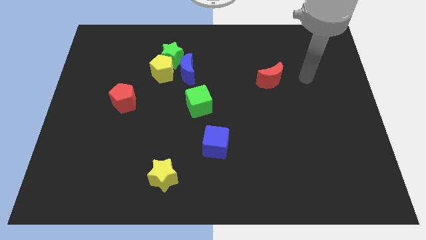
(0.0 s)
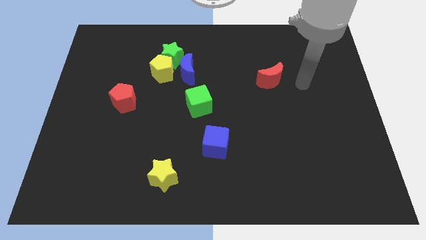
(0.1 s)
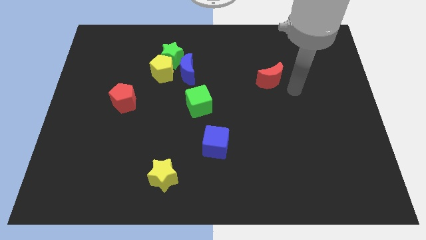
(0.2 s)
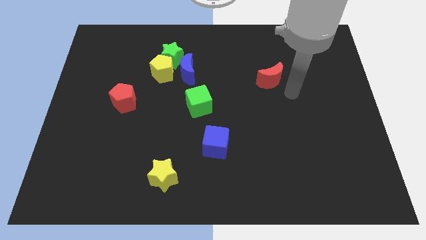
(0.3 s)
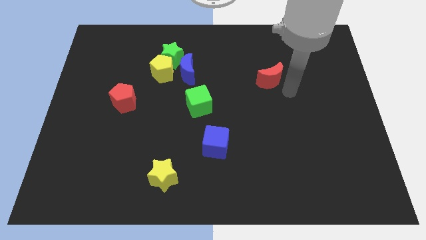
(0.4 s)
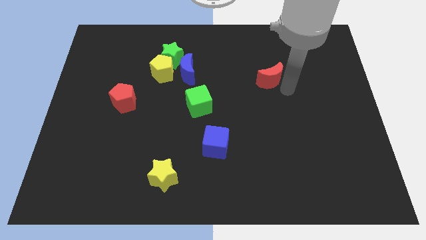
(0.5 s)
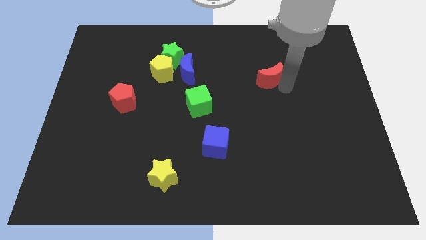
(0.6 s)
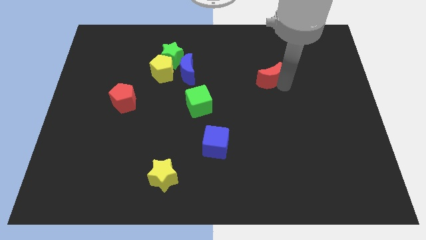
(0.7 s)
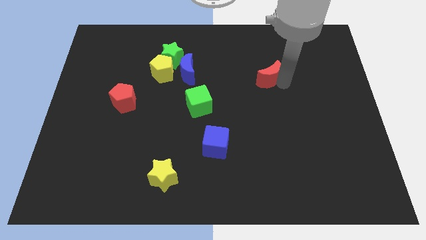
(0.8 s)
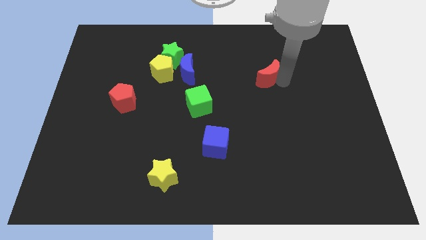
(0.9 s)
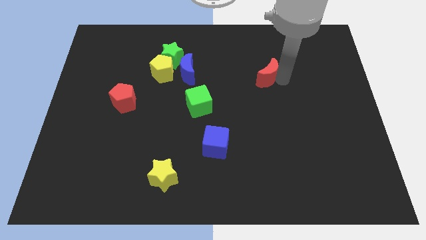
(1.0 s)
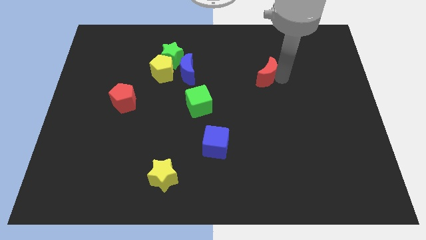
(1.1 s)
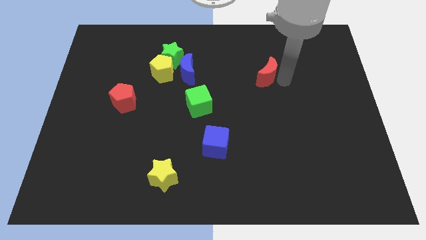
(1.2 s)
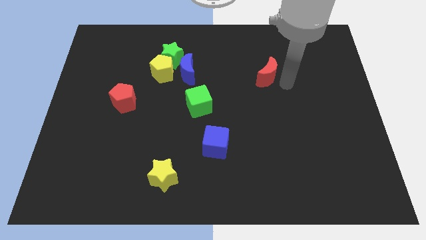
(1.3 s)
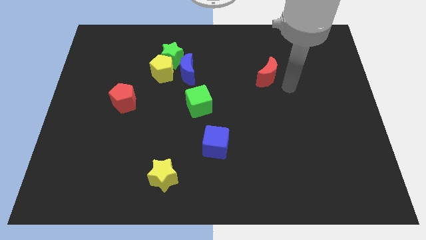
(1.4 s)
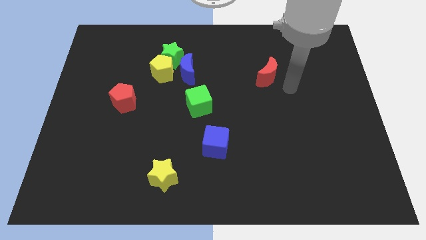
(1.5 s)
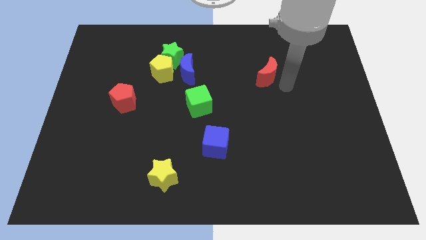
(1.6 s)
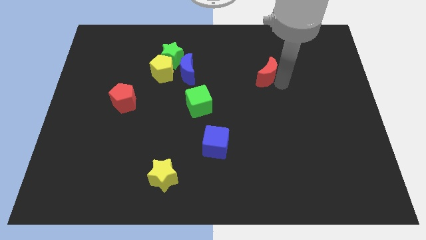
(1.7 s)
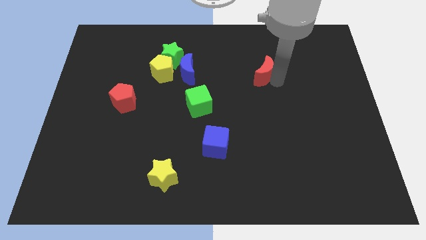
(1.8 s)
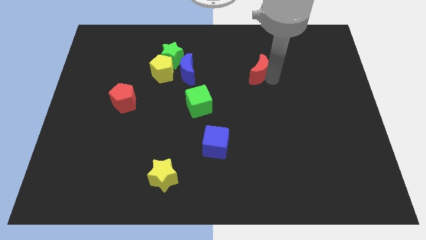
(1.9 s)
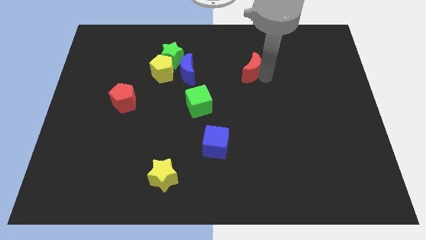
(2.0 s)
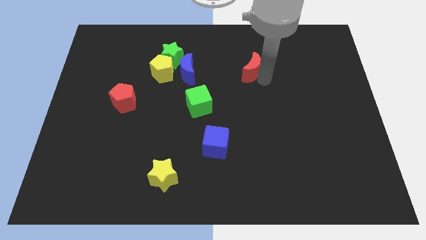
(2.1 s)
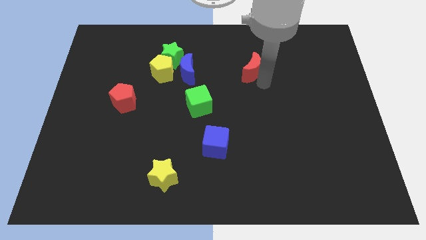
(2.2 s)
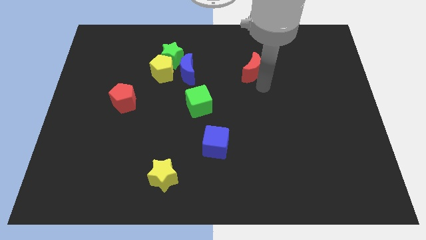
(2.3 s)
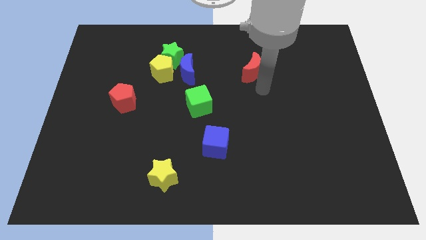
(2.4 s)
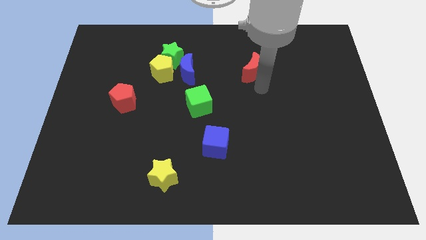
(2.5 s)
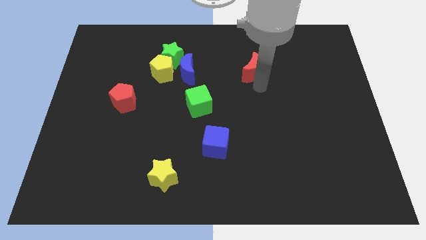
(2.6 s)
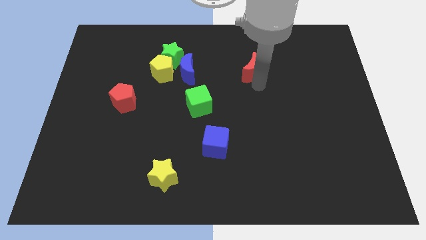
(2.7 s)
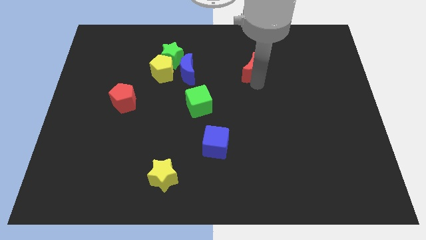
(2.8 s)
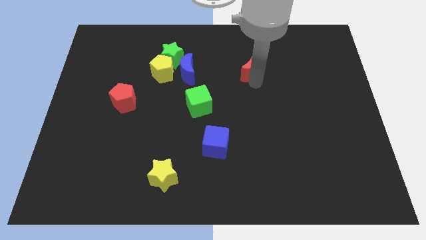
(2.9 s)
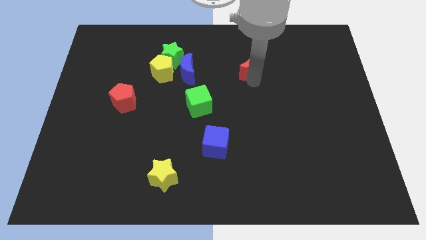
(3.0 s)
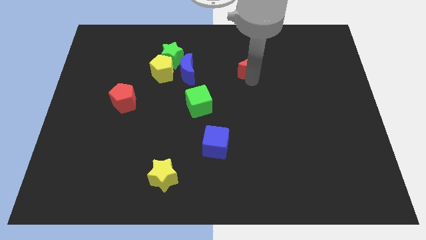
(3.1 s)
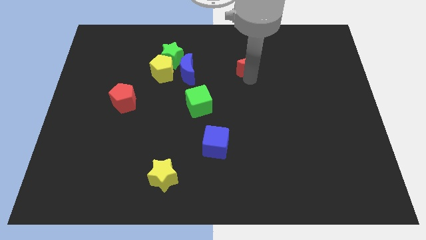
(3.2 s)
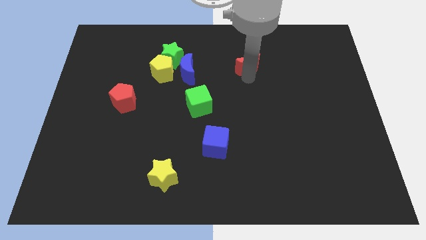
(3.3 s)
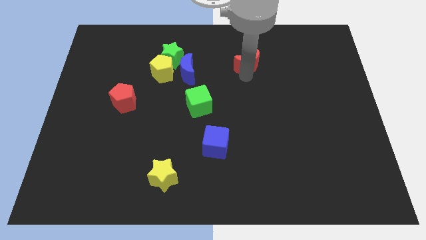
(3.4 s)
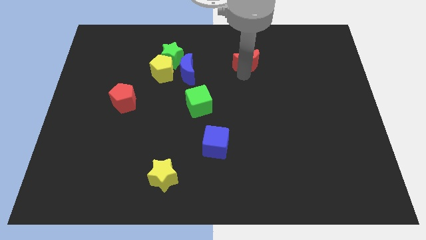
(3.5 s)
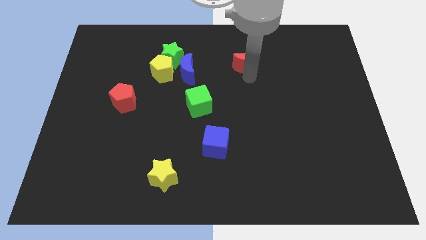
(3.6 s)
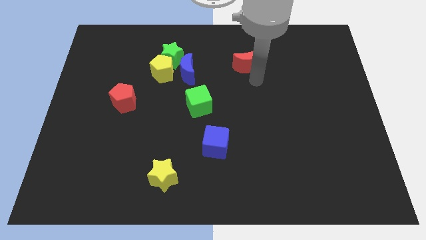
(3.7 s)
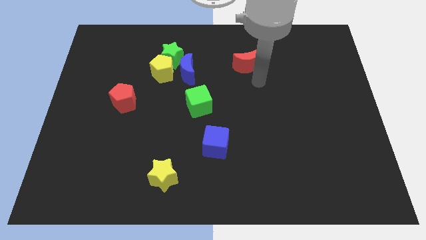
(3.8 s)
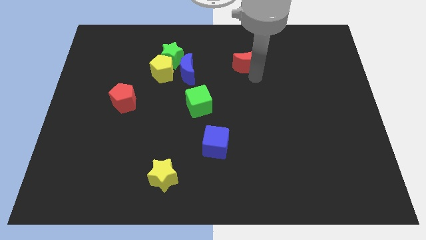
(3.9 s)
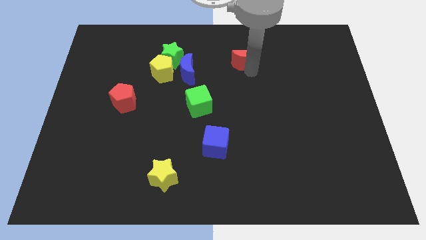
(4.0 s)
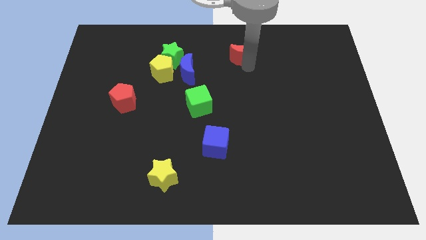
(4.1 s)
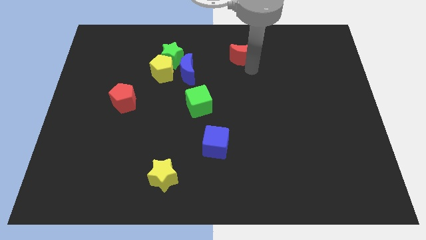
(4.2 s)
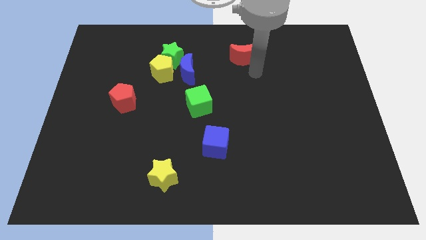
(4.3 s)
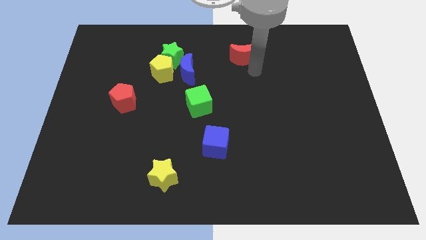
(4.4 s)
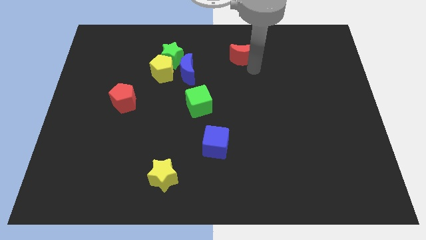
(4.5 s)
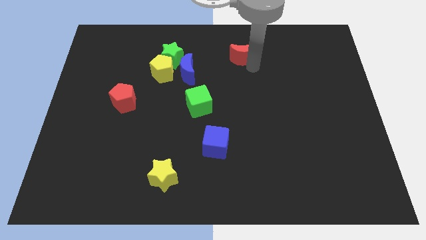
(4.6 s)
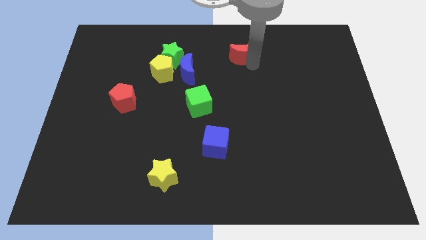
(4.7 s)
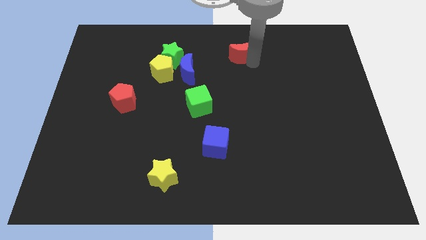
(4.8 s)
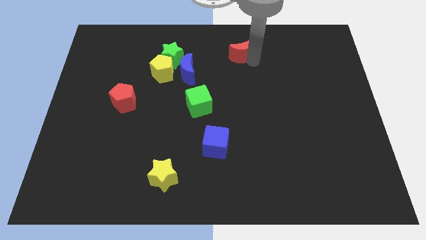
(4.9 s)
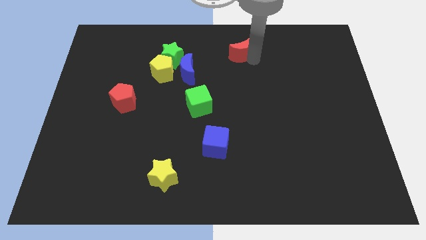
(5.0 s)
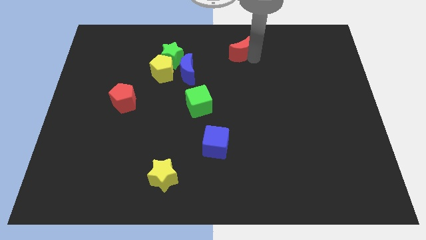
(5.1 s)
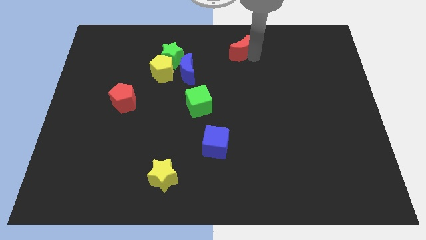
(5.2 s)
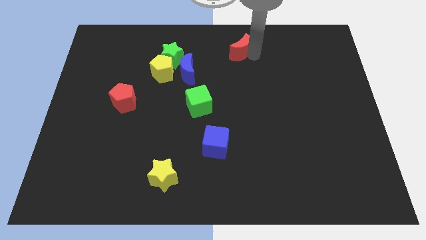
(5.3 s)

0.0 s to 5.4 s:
push the red moon to the towards your base

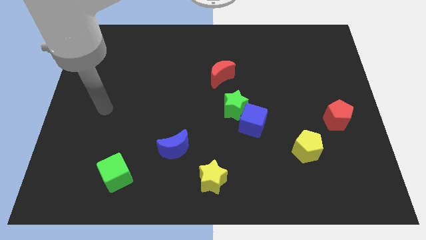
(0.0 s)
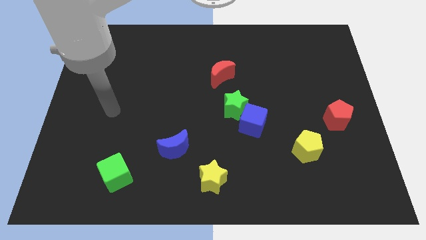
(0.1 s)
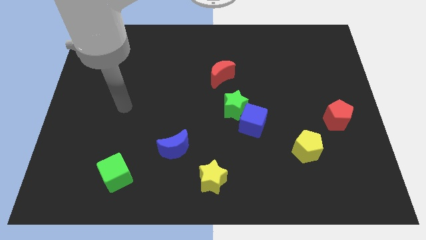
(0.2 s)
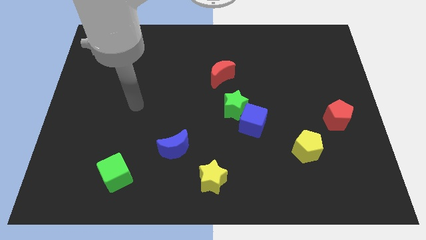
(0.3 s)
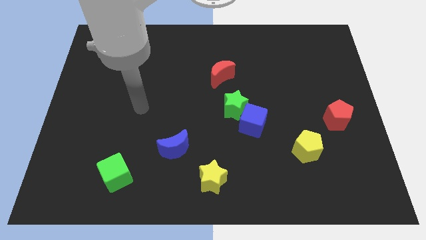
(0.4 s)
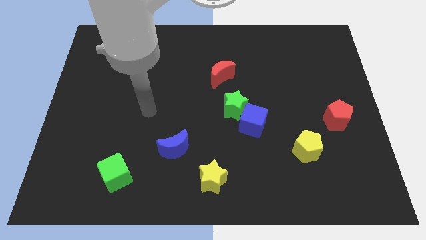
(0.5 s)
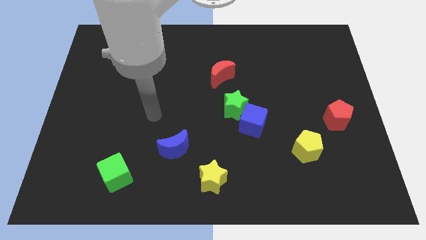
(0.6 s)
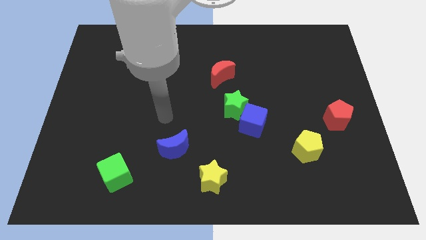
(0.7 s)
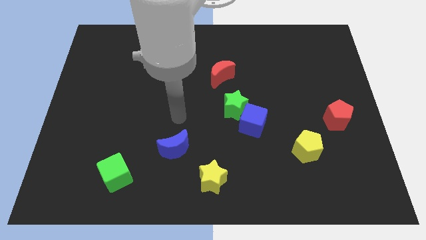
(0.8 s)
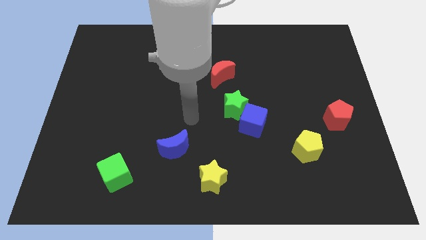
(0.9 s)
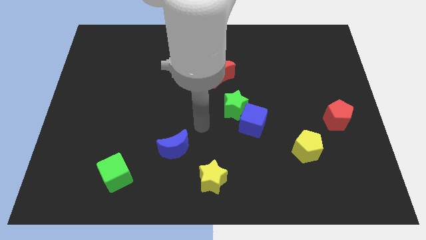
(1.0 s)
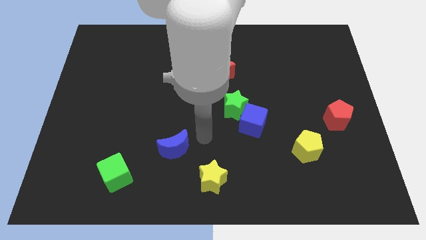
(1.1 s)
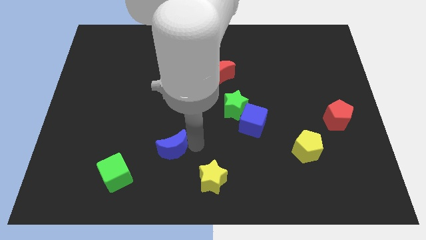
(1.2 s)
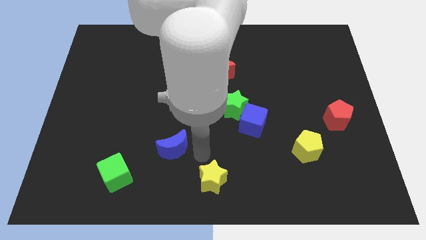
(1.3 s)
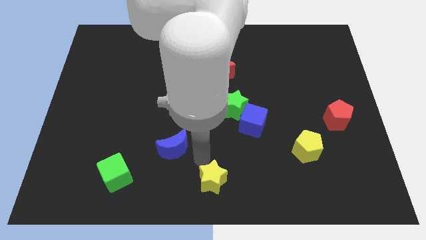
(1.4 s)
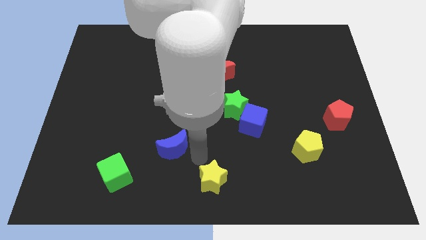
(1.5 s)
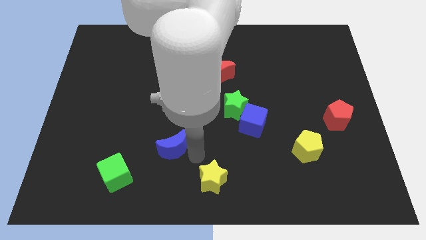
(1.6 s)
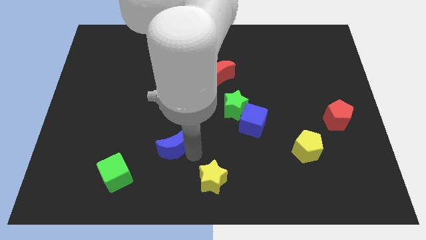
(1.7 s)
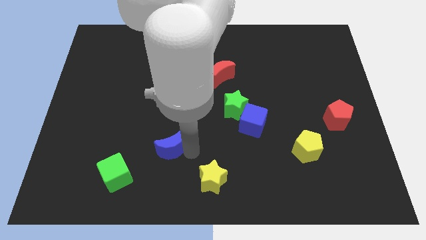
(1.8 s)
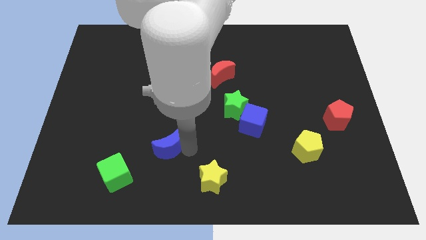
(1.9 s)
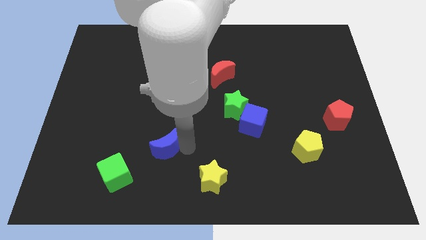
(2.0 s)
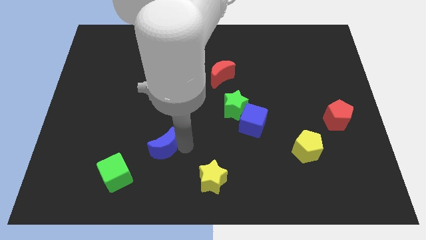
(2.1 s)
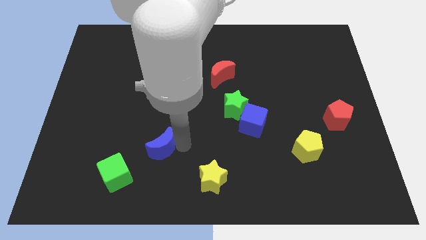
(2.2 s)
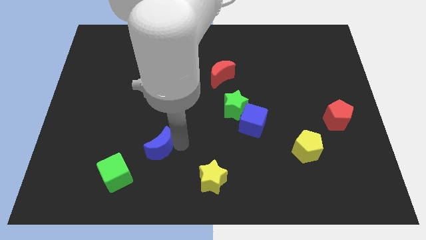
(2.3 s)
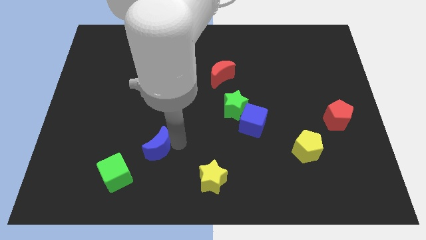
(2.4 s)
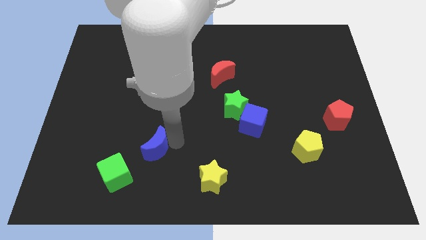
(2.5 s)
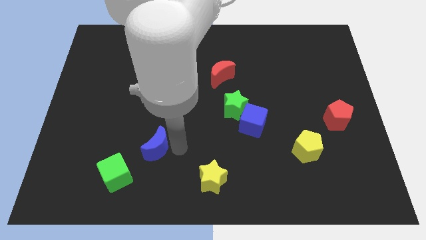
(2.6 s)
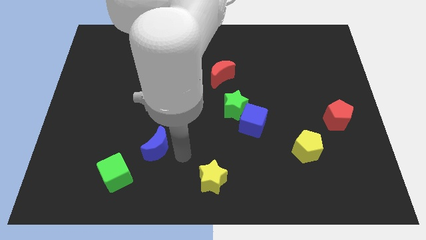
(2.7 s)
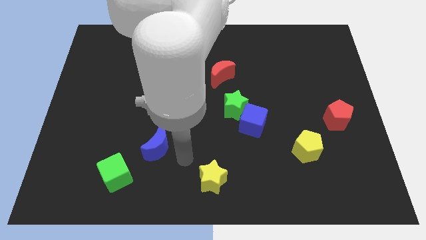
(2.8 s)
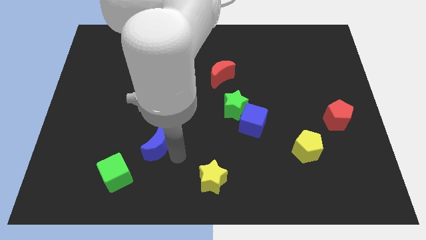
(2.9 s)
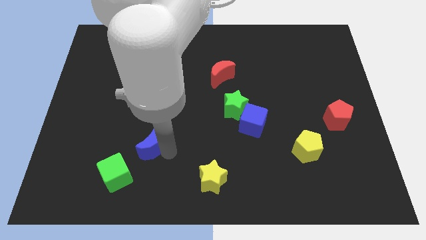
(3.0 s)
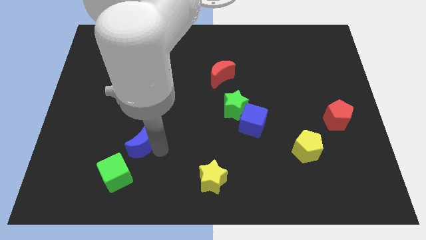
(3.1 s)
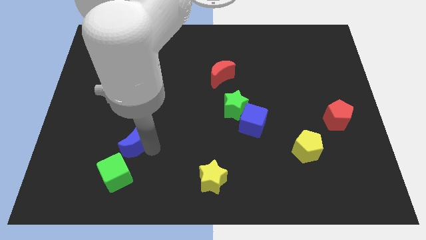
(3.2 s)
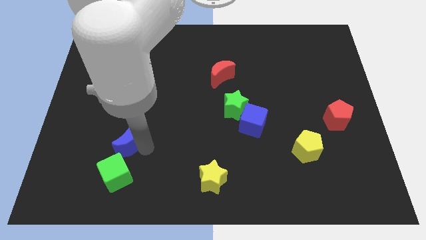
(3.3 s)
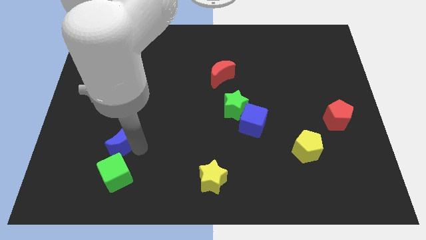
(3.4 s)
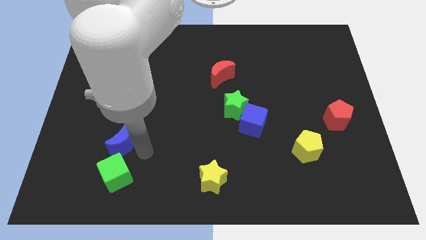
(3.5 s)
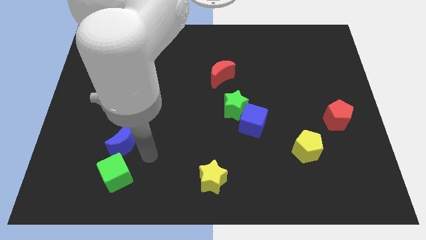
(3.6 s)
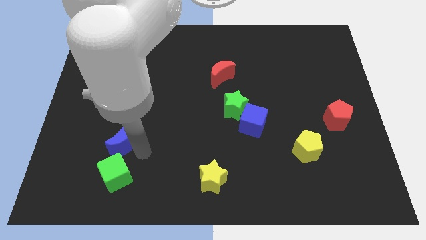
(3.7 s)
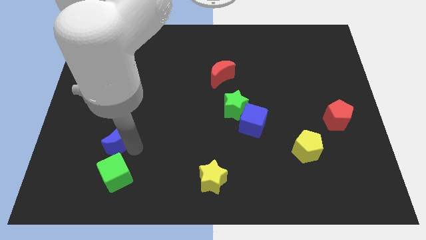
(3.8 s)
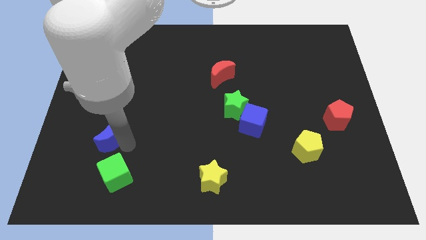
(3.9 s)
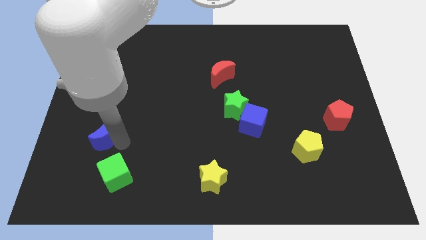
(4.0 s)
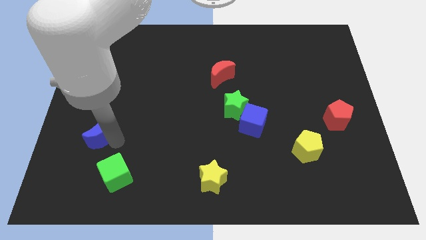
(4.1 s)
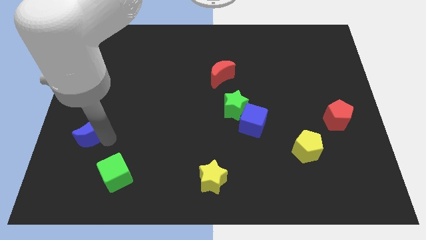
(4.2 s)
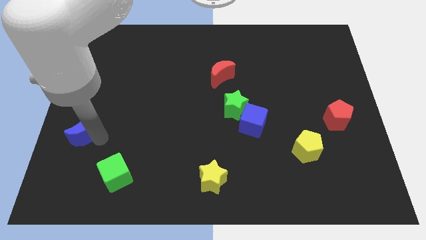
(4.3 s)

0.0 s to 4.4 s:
push the blue moon to the left side of the board
